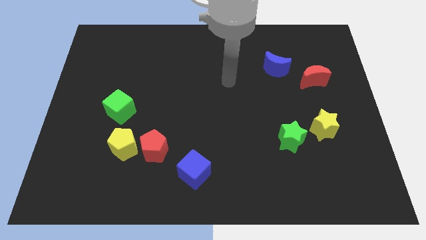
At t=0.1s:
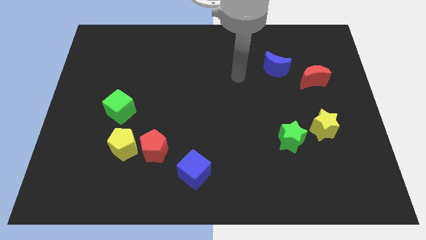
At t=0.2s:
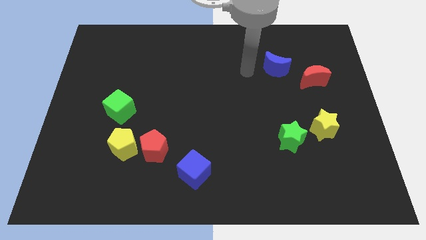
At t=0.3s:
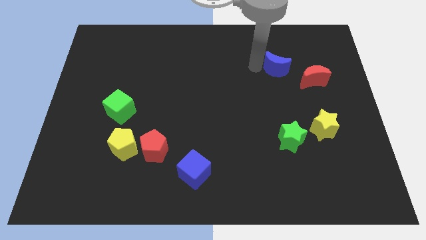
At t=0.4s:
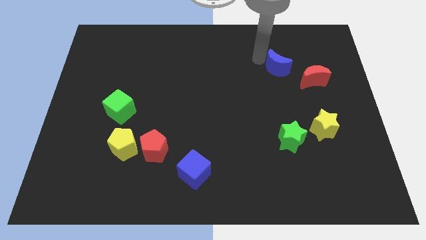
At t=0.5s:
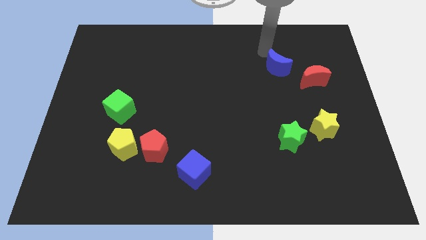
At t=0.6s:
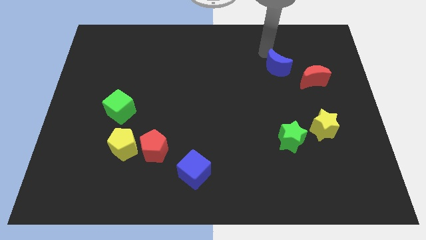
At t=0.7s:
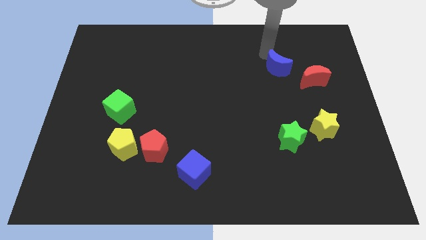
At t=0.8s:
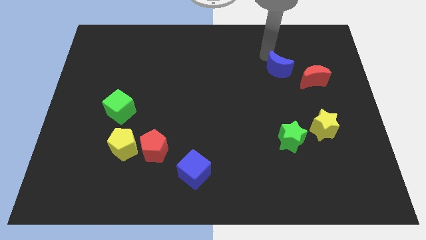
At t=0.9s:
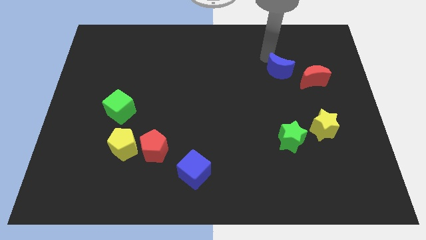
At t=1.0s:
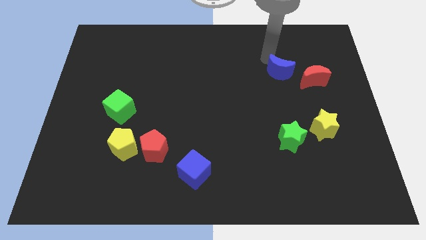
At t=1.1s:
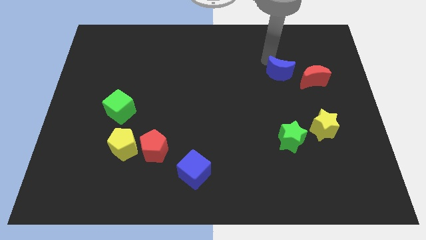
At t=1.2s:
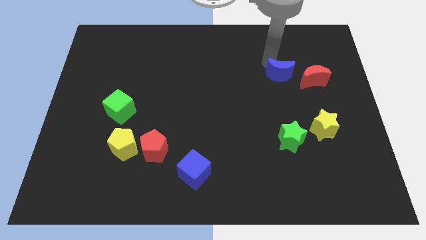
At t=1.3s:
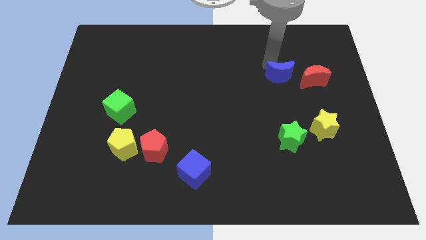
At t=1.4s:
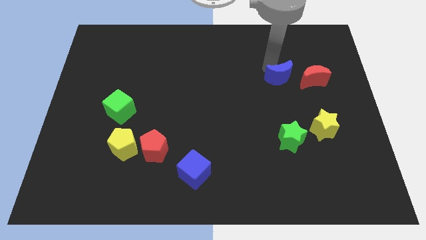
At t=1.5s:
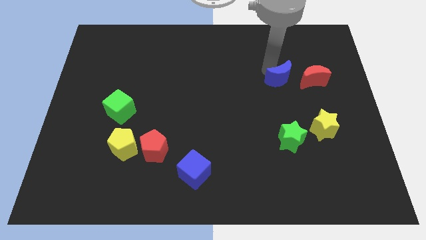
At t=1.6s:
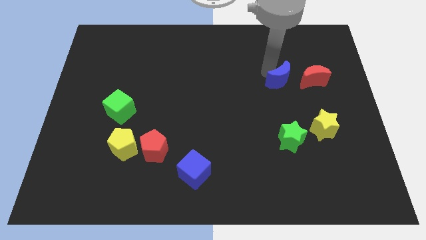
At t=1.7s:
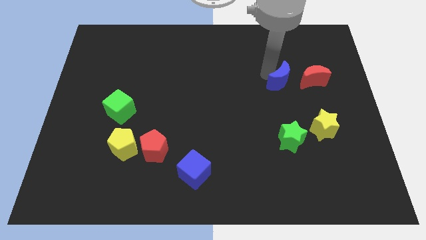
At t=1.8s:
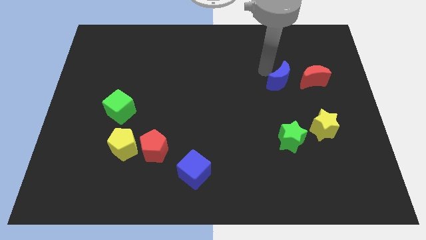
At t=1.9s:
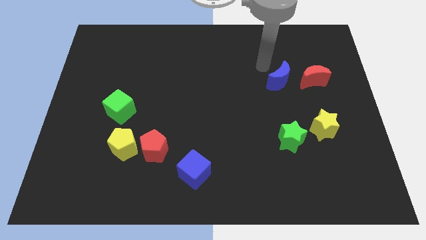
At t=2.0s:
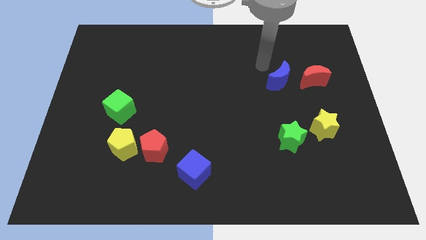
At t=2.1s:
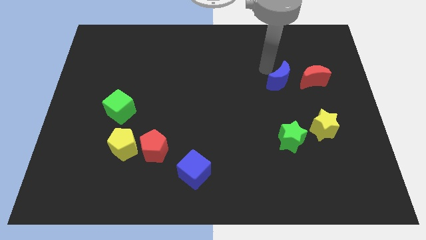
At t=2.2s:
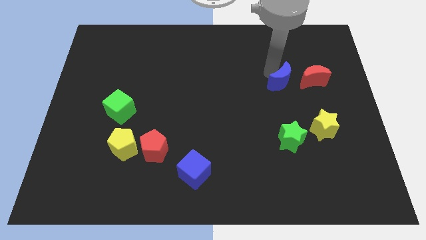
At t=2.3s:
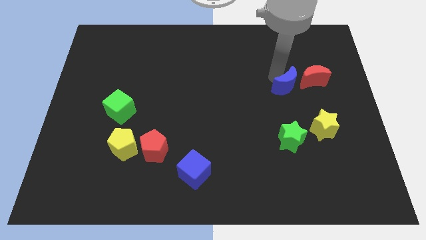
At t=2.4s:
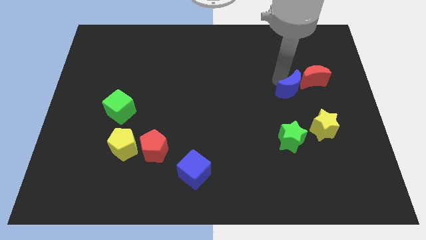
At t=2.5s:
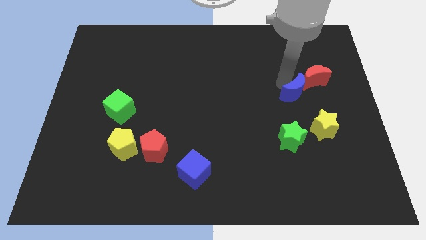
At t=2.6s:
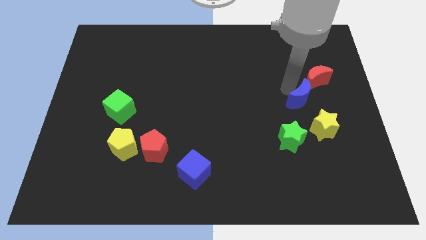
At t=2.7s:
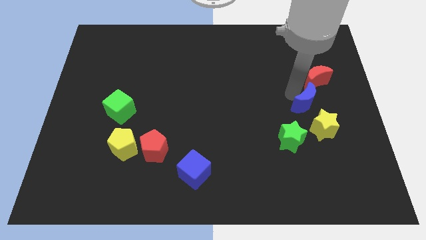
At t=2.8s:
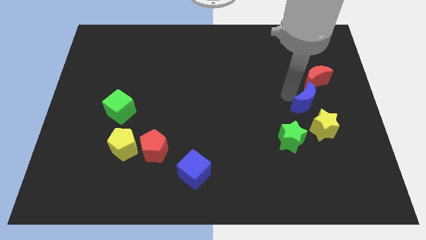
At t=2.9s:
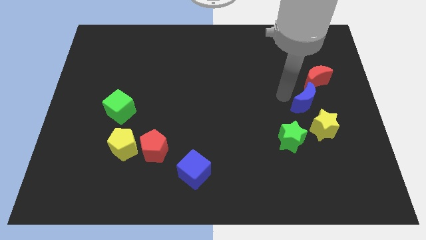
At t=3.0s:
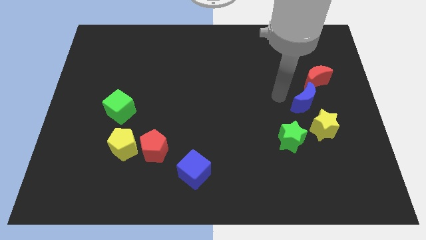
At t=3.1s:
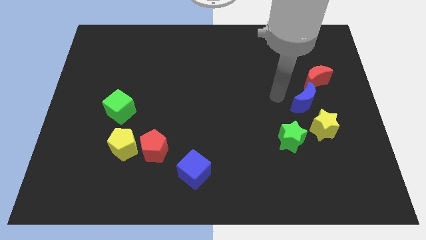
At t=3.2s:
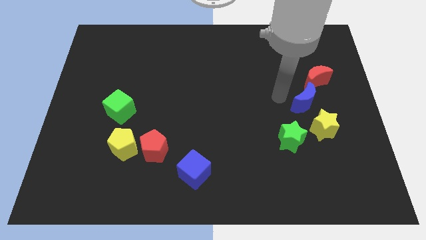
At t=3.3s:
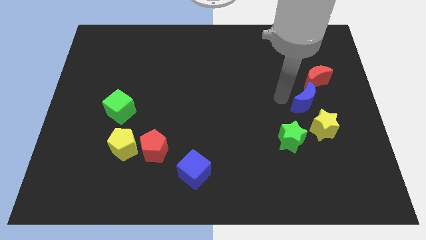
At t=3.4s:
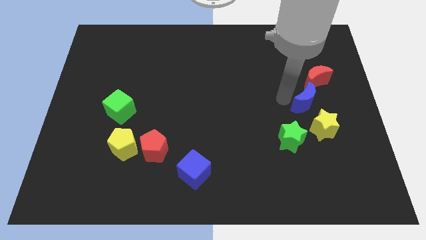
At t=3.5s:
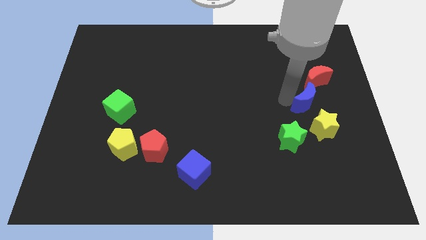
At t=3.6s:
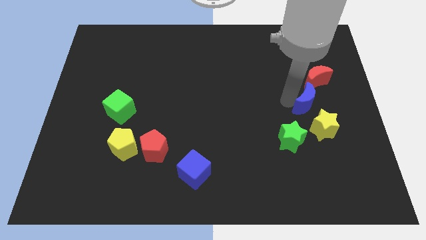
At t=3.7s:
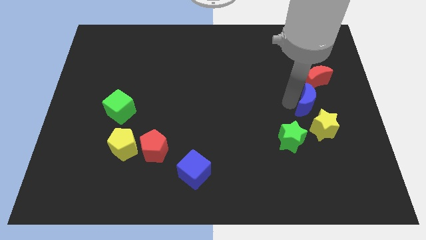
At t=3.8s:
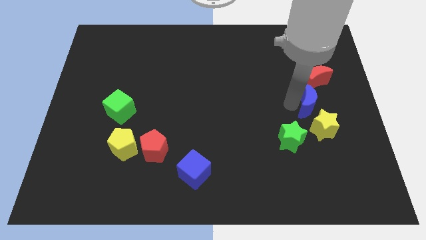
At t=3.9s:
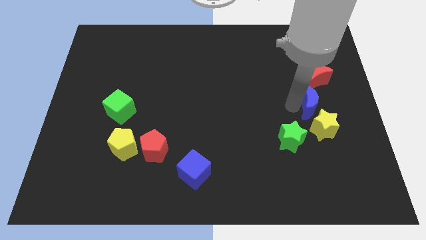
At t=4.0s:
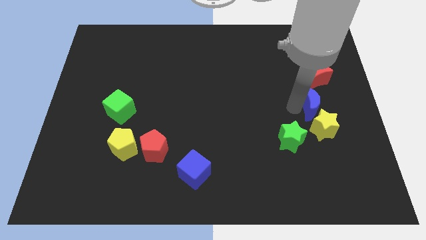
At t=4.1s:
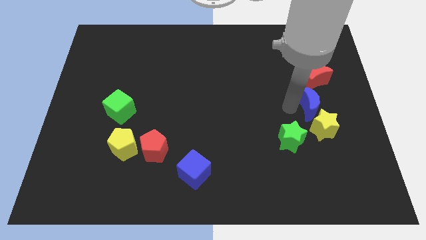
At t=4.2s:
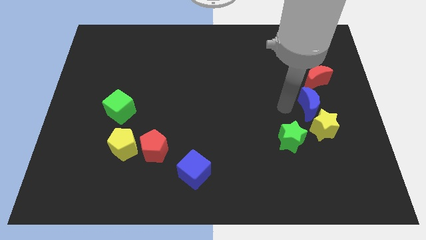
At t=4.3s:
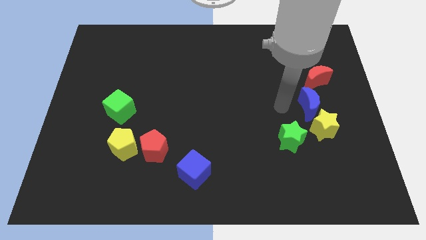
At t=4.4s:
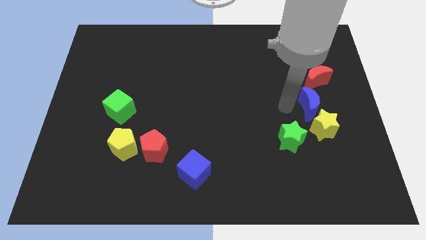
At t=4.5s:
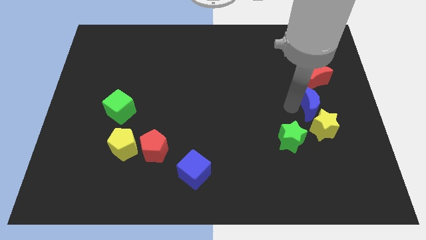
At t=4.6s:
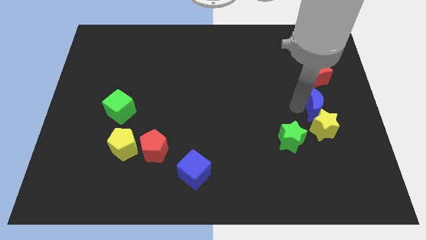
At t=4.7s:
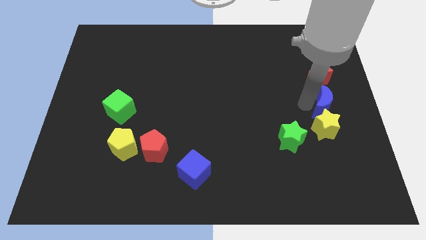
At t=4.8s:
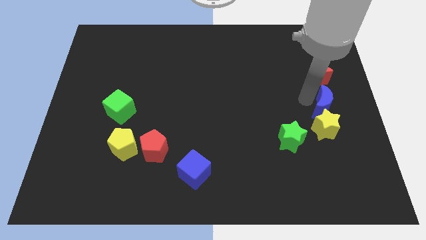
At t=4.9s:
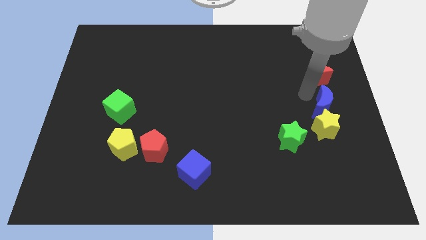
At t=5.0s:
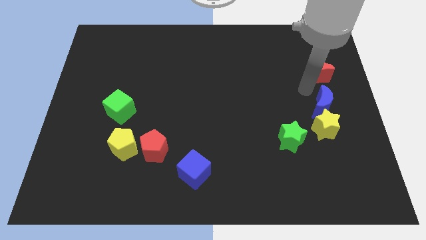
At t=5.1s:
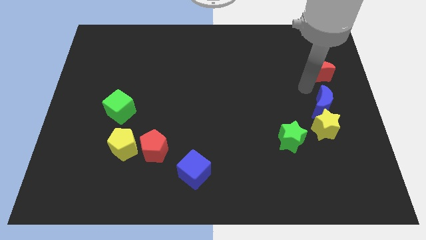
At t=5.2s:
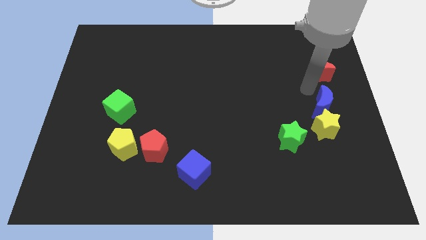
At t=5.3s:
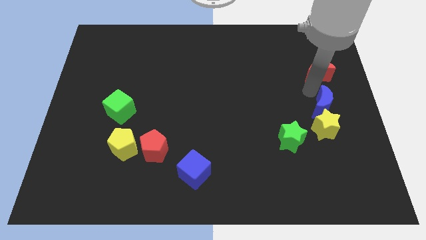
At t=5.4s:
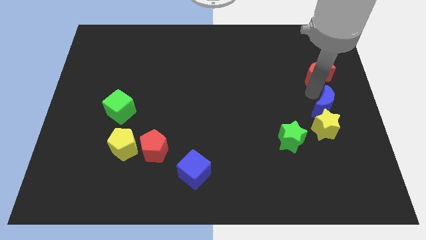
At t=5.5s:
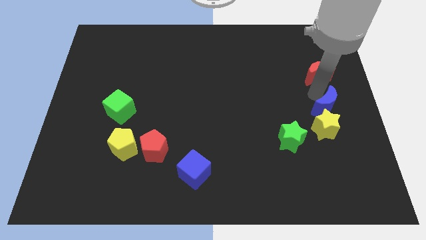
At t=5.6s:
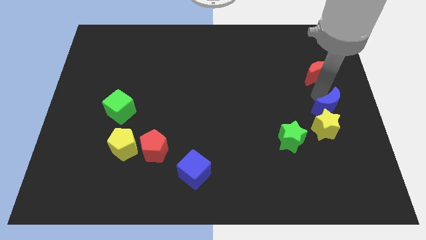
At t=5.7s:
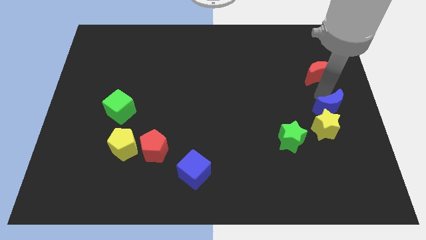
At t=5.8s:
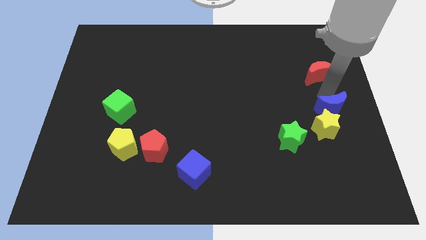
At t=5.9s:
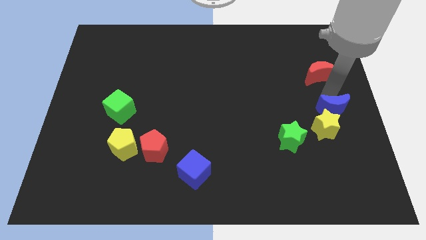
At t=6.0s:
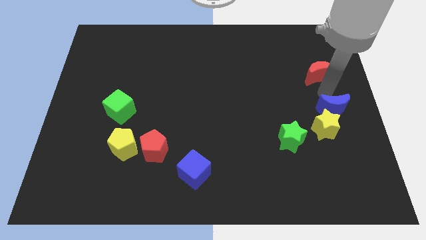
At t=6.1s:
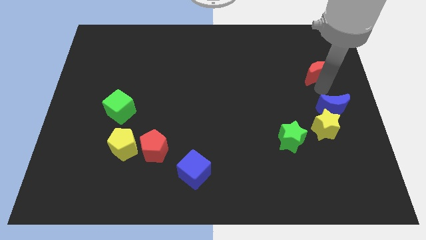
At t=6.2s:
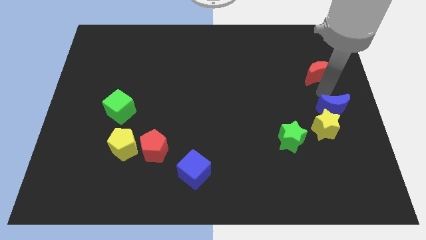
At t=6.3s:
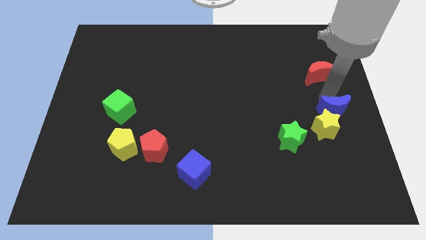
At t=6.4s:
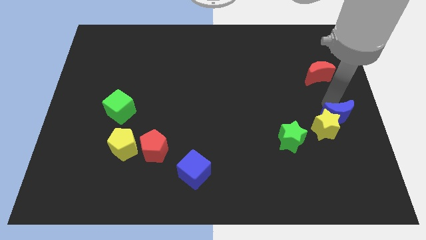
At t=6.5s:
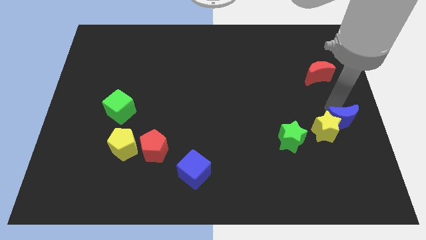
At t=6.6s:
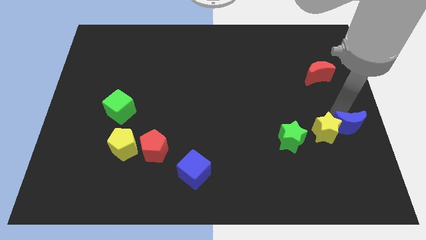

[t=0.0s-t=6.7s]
put the blue moon right of the green star

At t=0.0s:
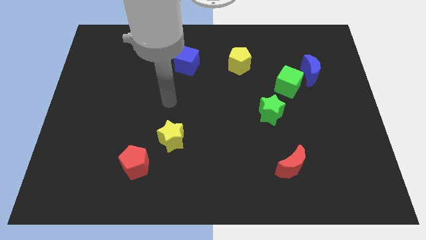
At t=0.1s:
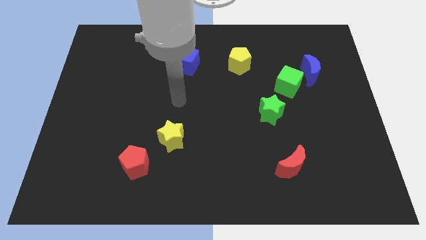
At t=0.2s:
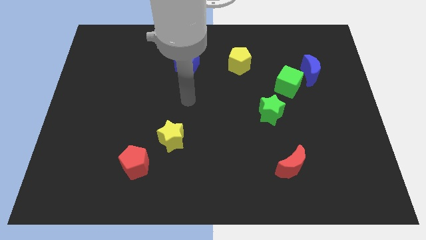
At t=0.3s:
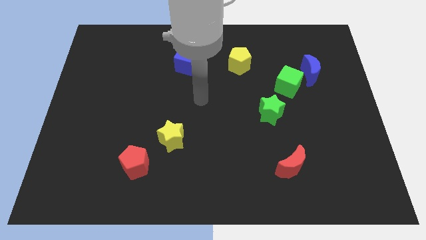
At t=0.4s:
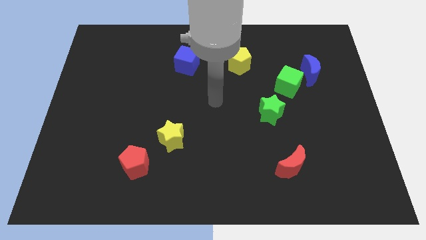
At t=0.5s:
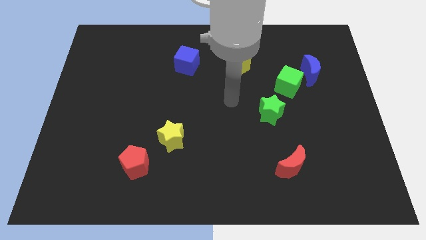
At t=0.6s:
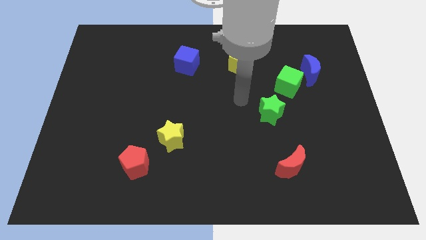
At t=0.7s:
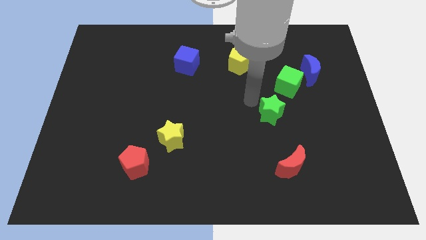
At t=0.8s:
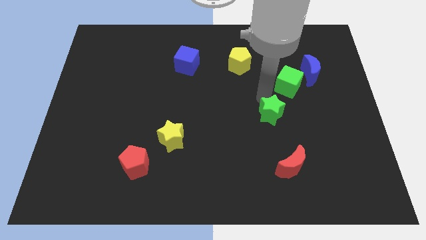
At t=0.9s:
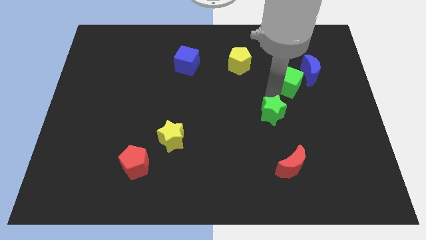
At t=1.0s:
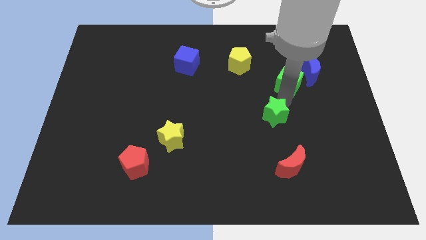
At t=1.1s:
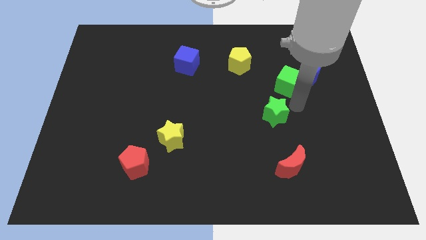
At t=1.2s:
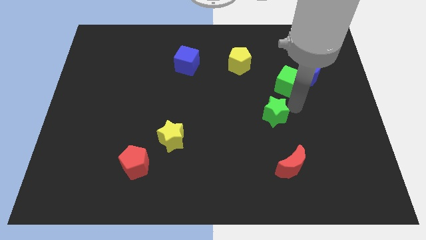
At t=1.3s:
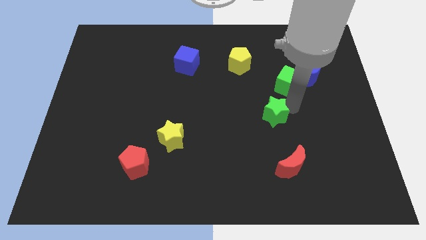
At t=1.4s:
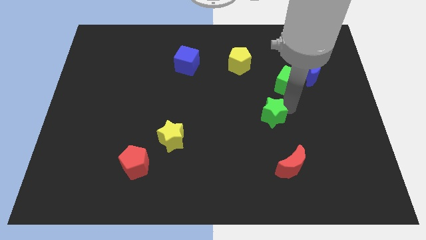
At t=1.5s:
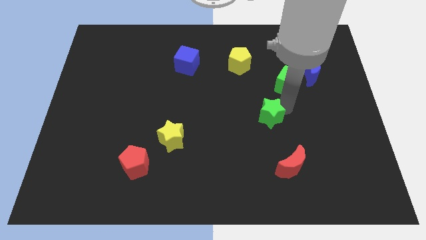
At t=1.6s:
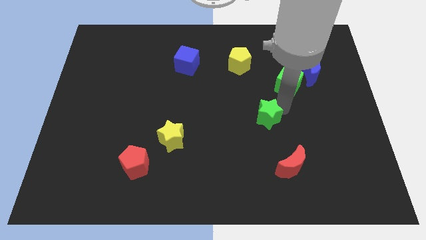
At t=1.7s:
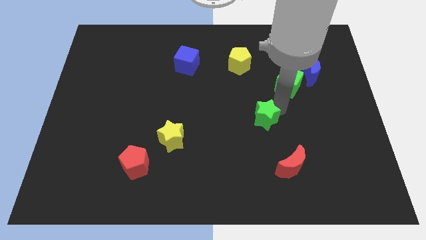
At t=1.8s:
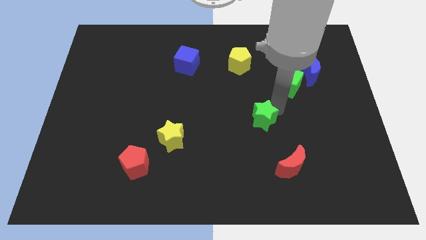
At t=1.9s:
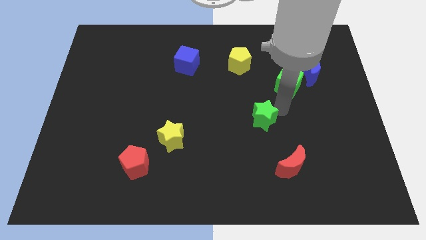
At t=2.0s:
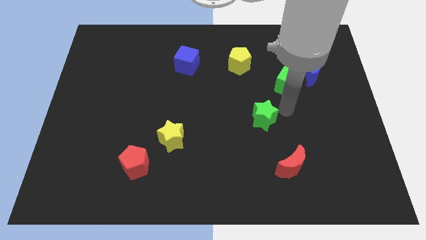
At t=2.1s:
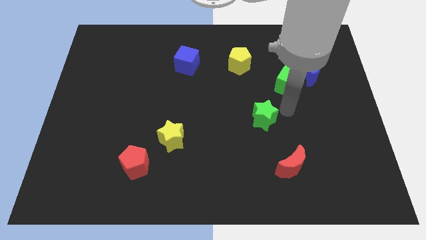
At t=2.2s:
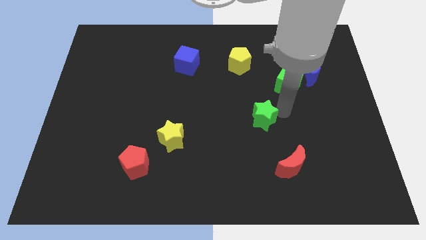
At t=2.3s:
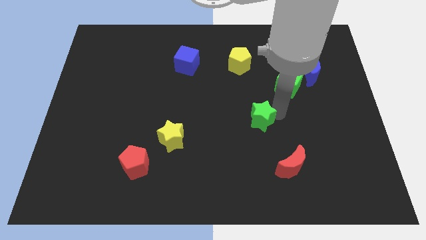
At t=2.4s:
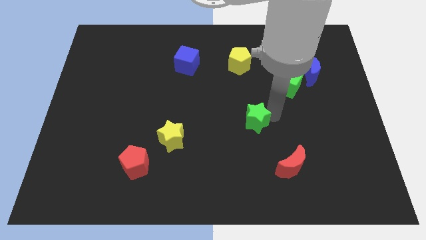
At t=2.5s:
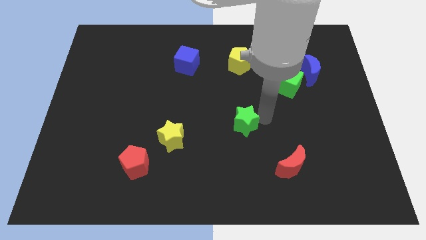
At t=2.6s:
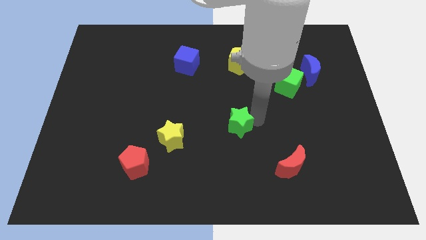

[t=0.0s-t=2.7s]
put the green star right of the yellow star
